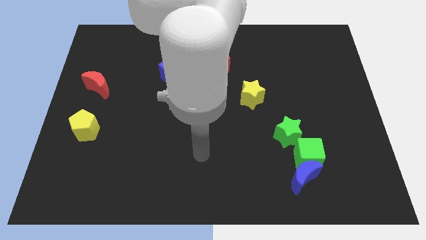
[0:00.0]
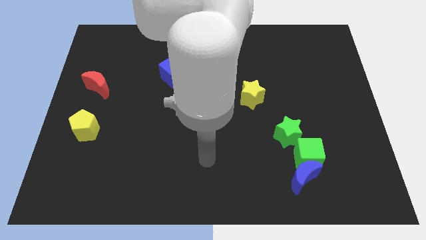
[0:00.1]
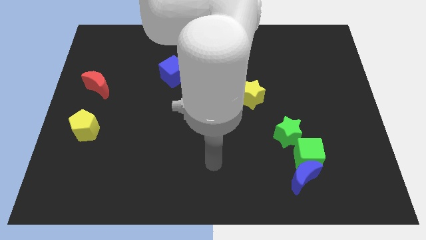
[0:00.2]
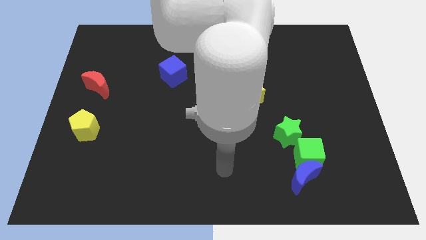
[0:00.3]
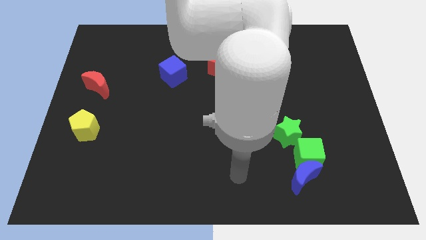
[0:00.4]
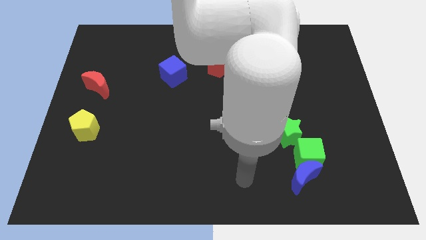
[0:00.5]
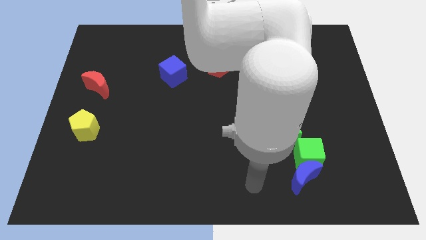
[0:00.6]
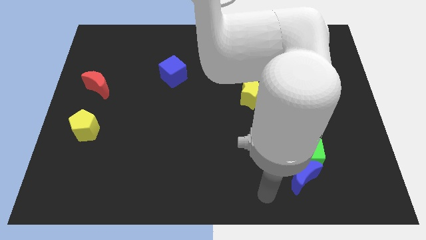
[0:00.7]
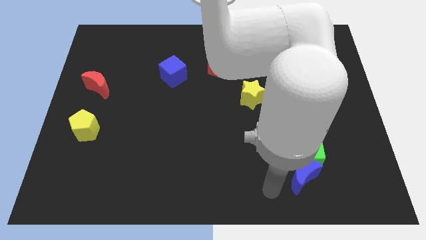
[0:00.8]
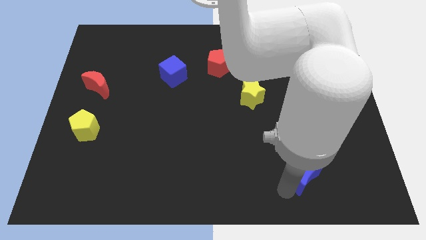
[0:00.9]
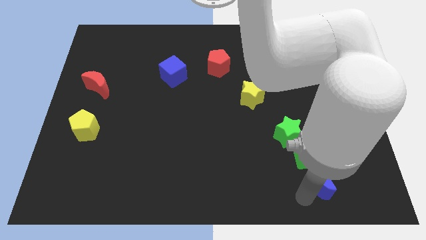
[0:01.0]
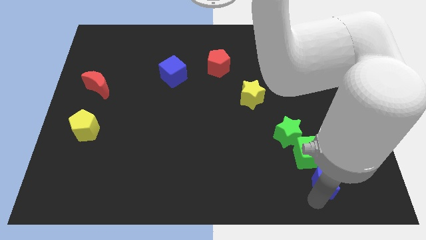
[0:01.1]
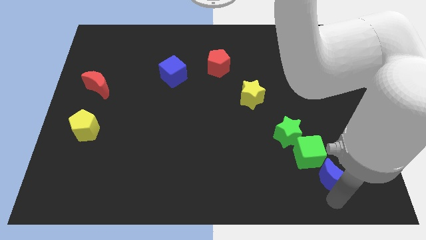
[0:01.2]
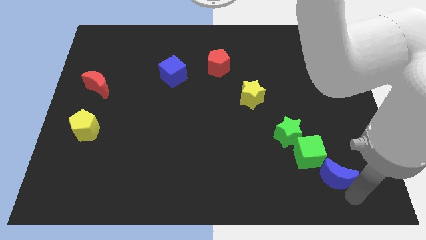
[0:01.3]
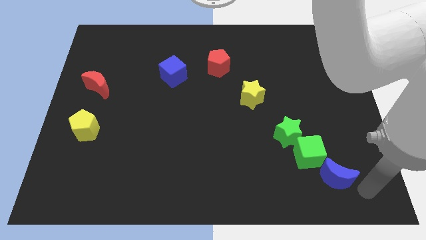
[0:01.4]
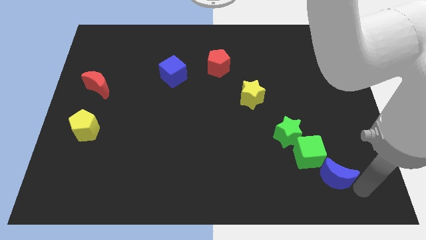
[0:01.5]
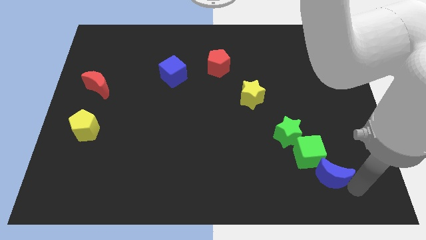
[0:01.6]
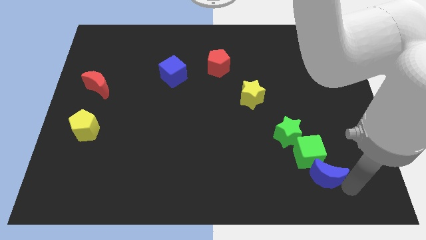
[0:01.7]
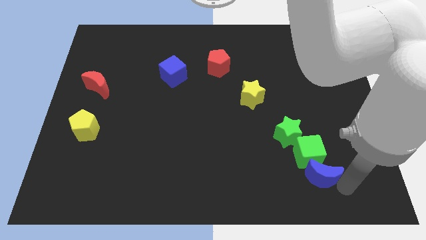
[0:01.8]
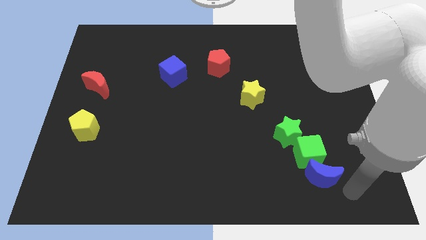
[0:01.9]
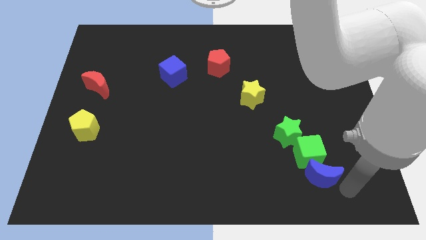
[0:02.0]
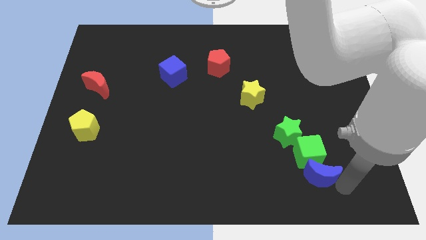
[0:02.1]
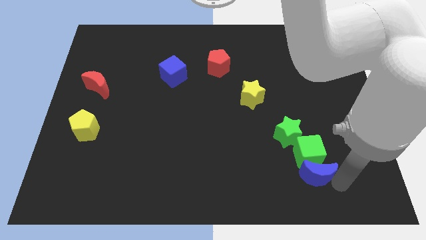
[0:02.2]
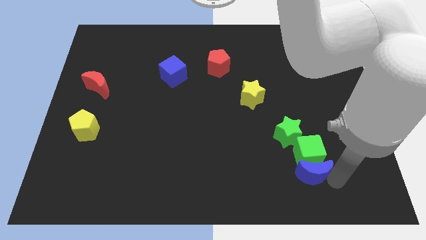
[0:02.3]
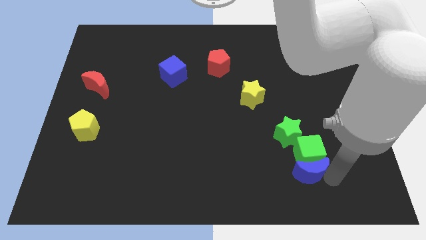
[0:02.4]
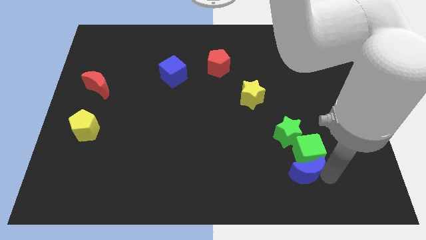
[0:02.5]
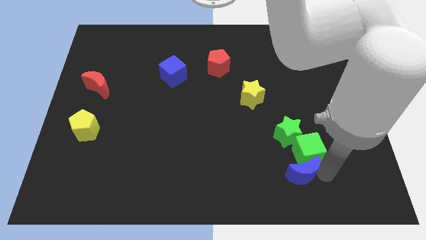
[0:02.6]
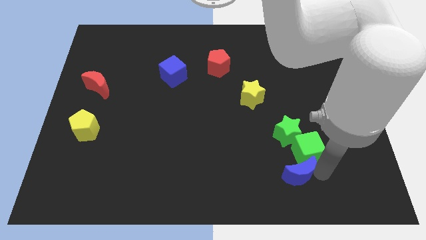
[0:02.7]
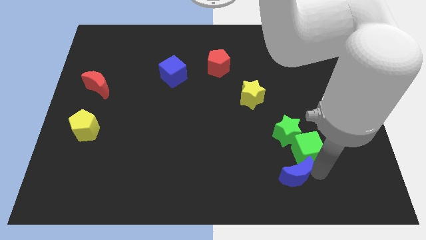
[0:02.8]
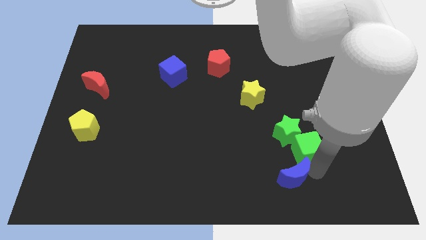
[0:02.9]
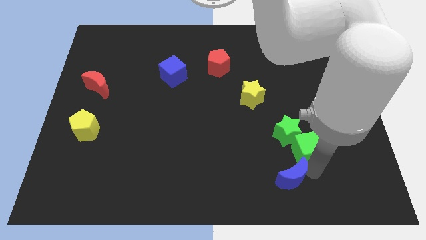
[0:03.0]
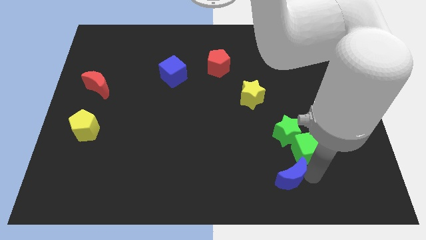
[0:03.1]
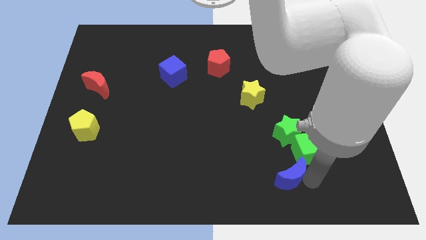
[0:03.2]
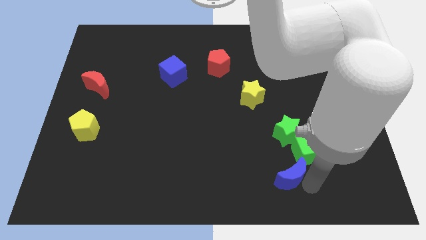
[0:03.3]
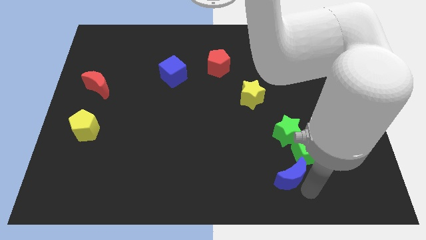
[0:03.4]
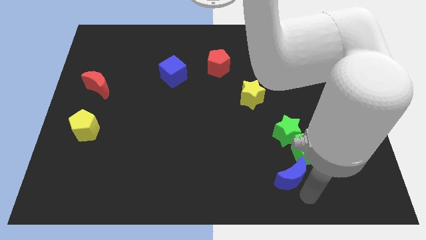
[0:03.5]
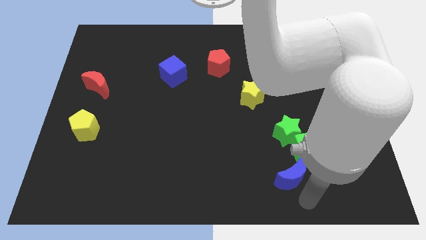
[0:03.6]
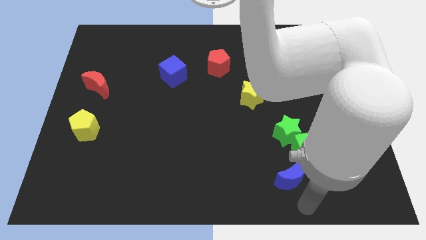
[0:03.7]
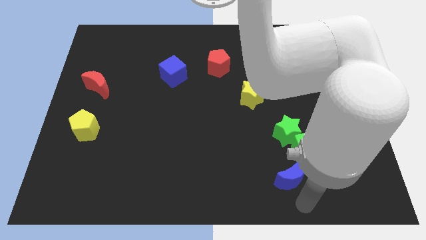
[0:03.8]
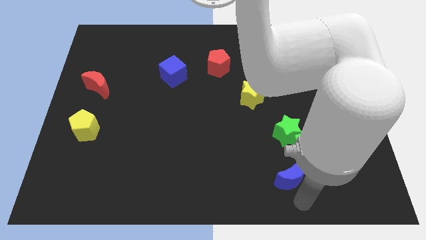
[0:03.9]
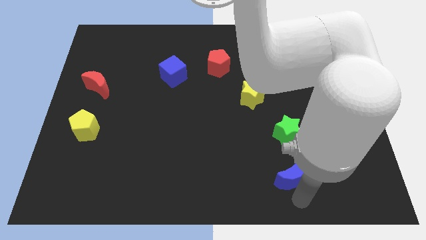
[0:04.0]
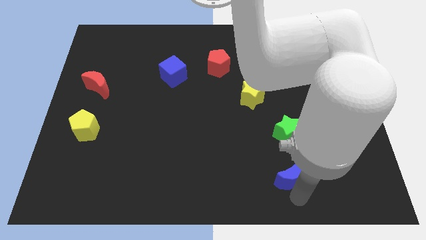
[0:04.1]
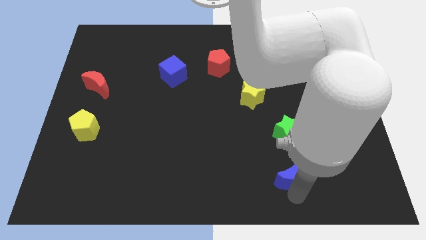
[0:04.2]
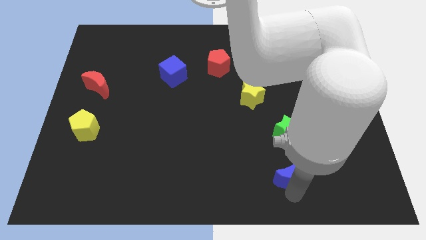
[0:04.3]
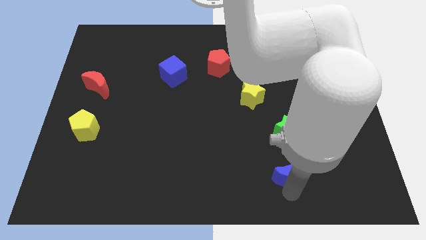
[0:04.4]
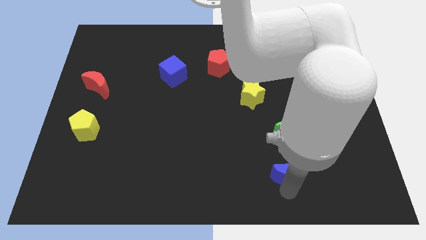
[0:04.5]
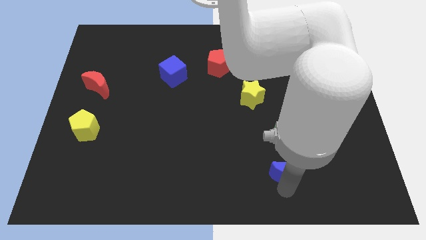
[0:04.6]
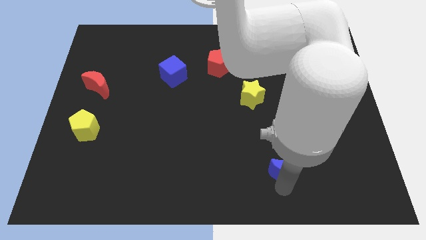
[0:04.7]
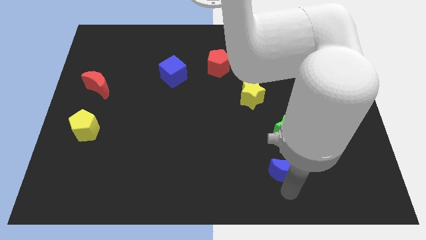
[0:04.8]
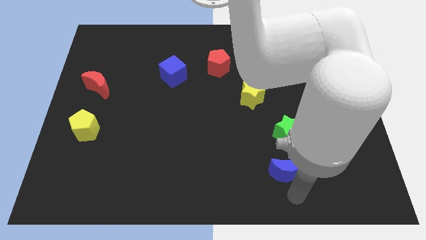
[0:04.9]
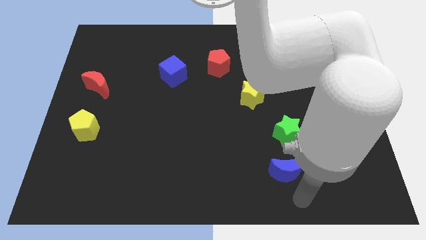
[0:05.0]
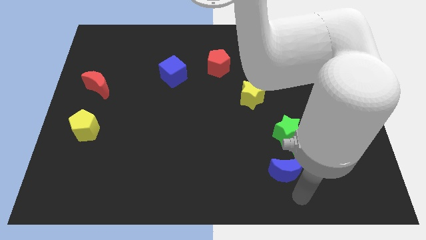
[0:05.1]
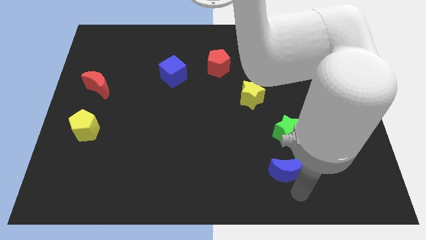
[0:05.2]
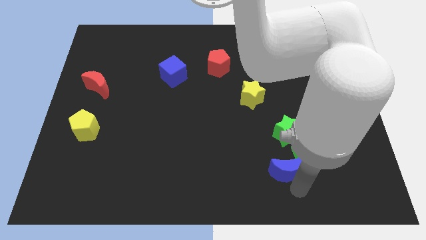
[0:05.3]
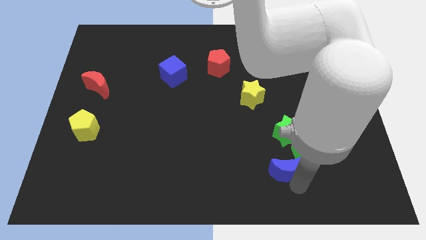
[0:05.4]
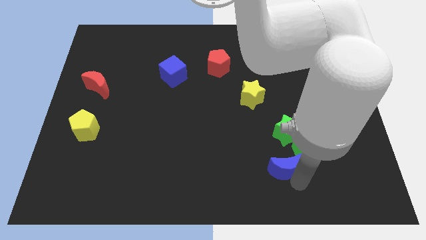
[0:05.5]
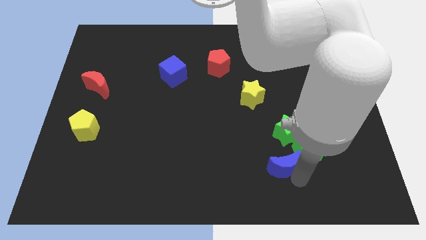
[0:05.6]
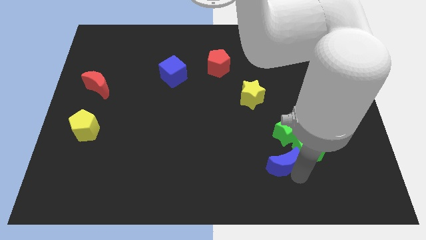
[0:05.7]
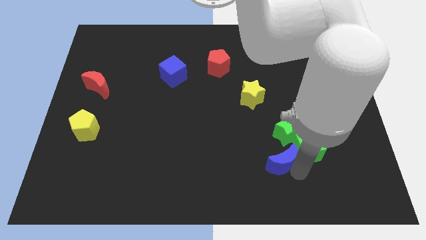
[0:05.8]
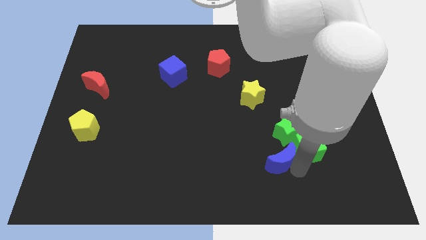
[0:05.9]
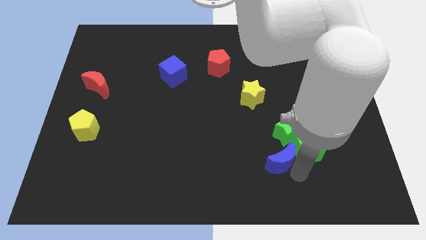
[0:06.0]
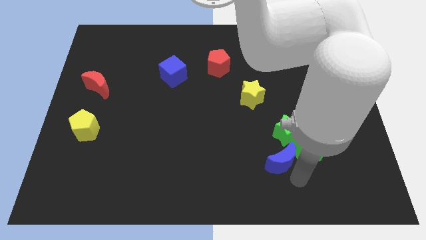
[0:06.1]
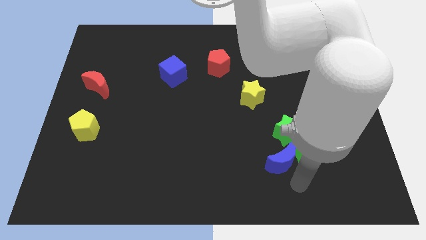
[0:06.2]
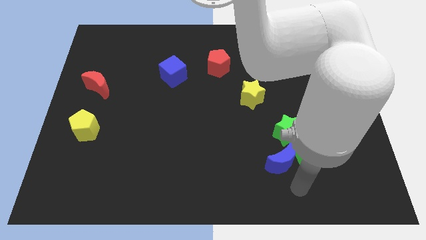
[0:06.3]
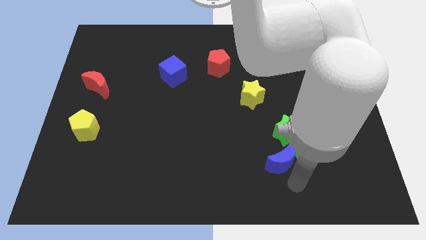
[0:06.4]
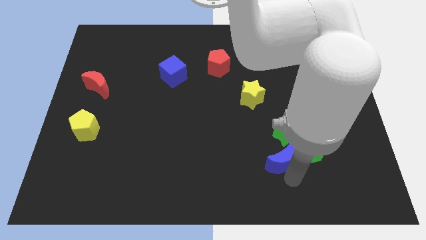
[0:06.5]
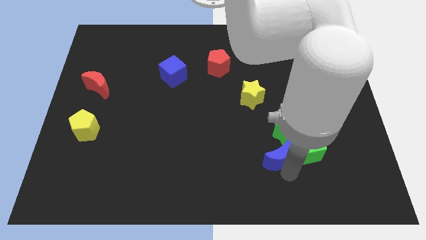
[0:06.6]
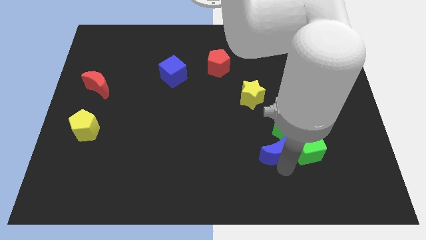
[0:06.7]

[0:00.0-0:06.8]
push the blue moon upwards and then left a little

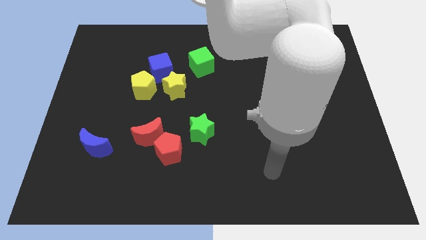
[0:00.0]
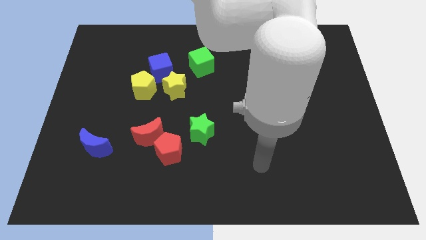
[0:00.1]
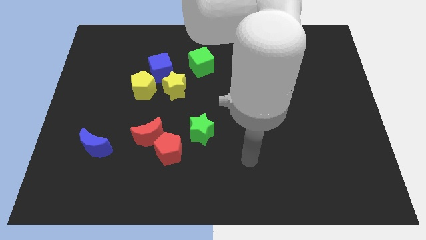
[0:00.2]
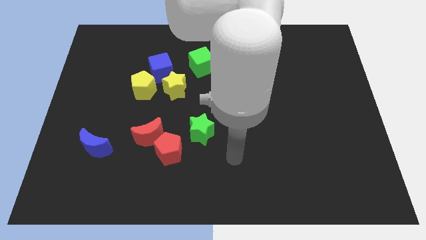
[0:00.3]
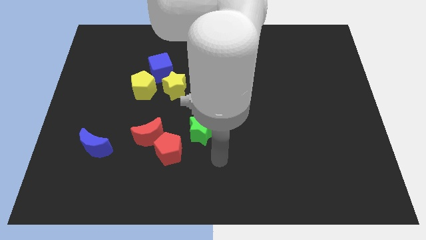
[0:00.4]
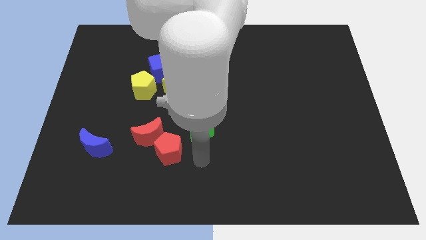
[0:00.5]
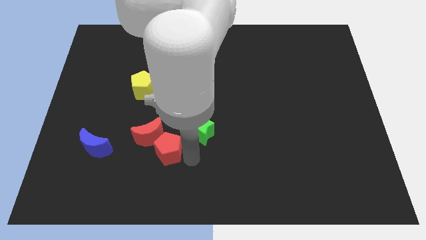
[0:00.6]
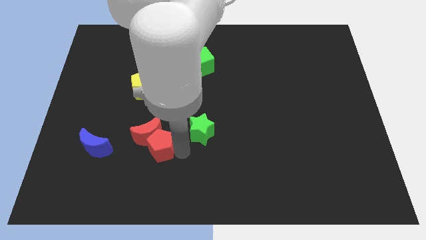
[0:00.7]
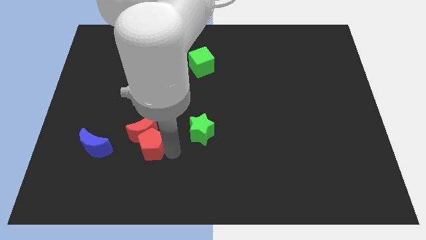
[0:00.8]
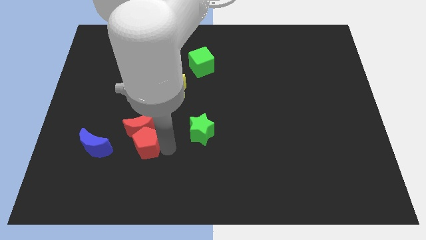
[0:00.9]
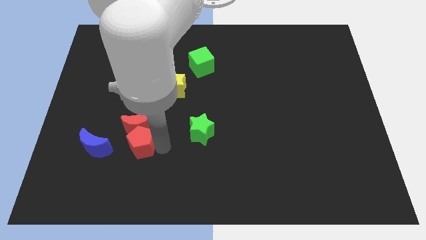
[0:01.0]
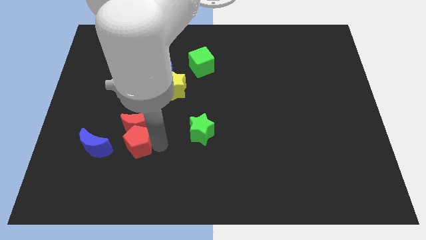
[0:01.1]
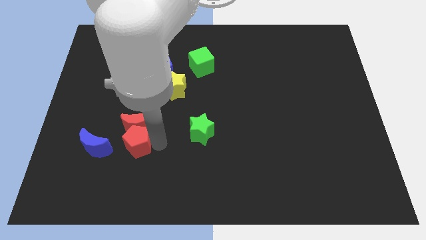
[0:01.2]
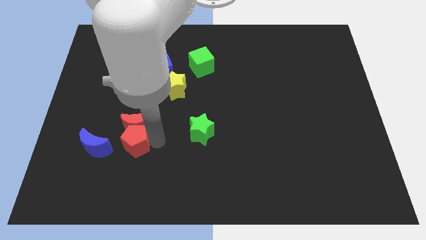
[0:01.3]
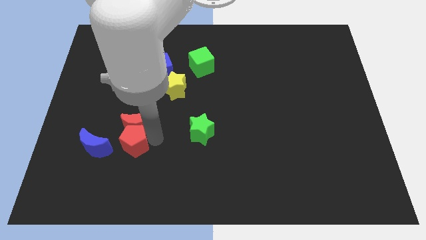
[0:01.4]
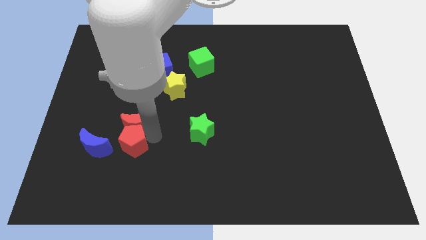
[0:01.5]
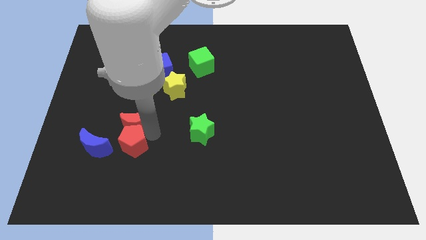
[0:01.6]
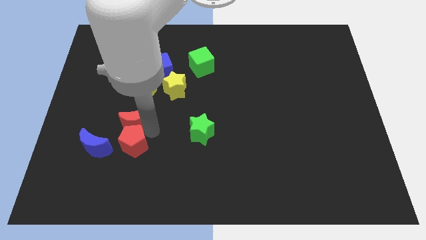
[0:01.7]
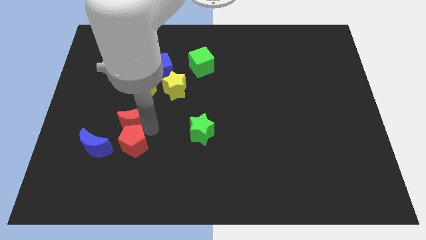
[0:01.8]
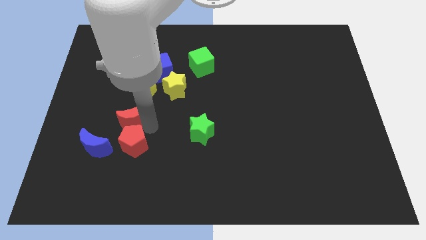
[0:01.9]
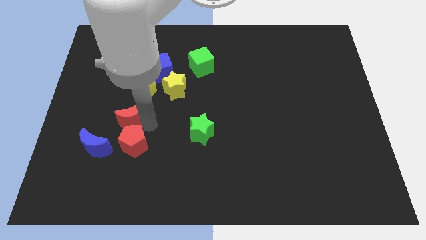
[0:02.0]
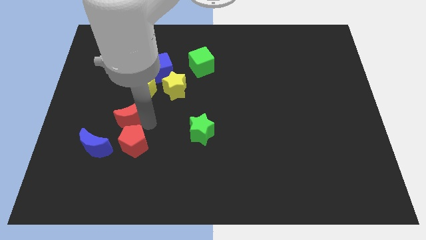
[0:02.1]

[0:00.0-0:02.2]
slightly push the red moon up and to the left diagonally
